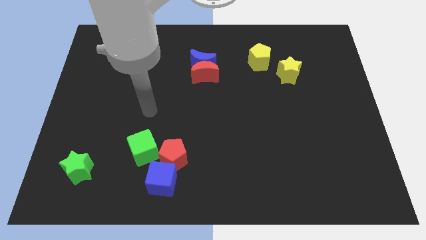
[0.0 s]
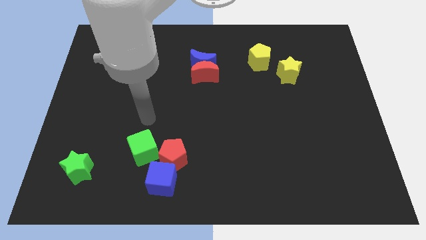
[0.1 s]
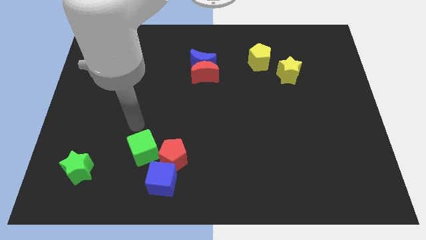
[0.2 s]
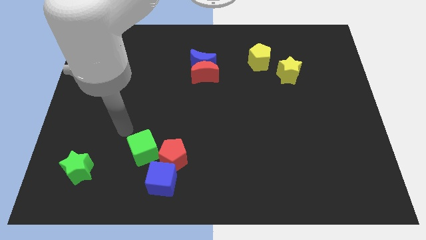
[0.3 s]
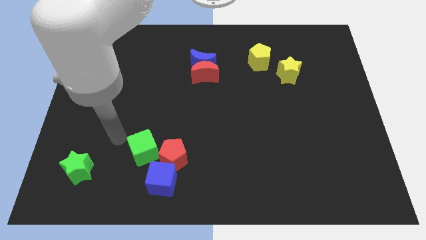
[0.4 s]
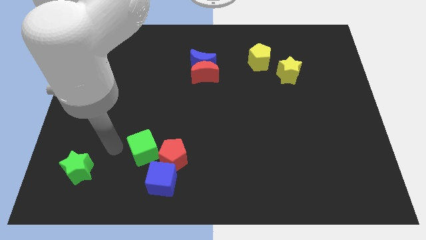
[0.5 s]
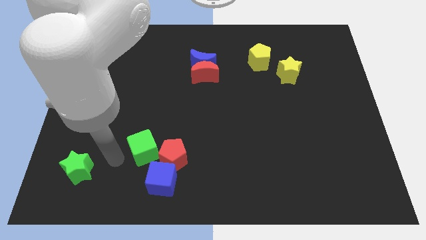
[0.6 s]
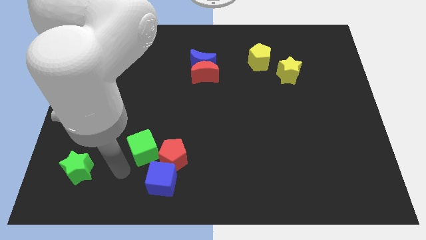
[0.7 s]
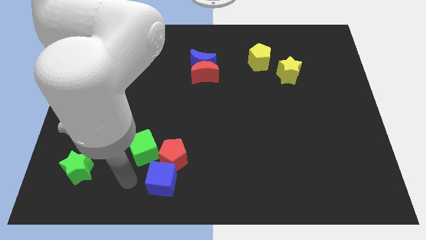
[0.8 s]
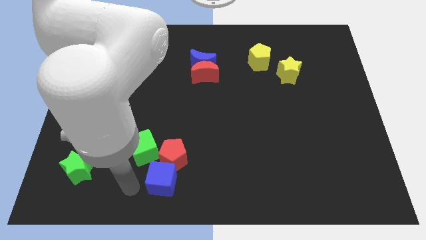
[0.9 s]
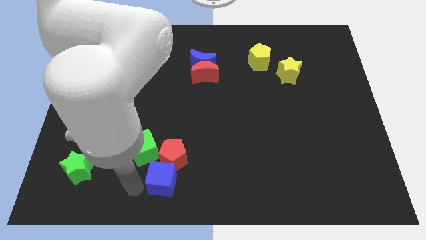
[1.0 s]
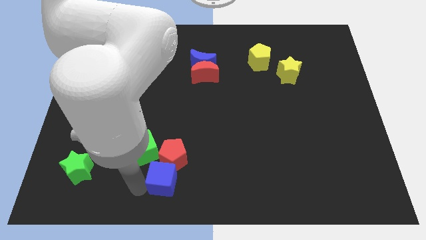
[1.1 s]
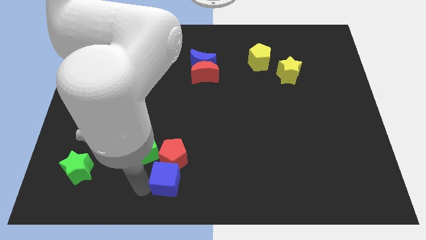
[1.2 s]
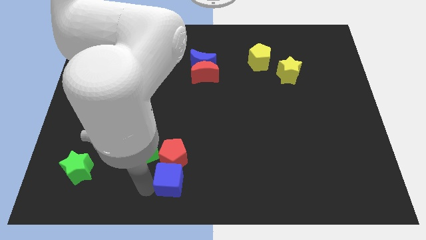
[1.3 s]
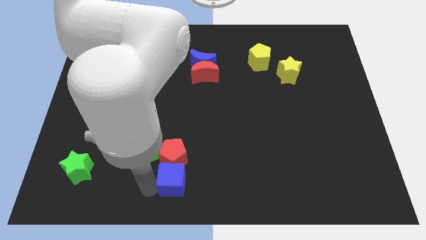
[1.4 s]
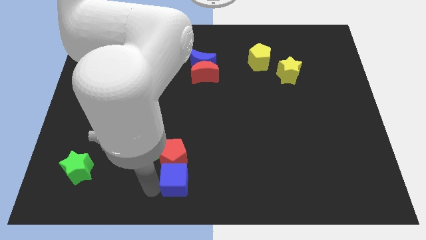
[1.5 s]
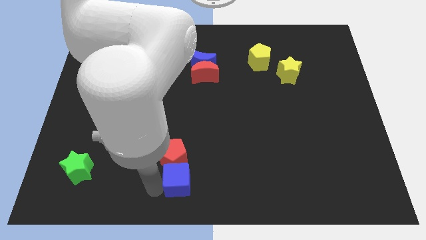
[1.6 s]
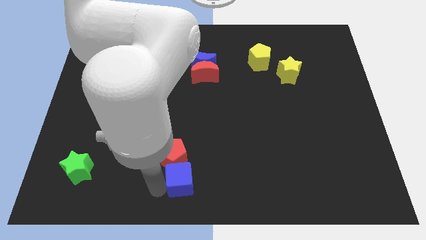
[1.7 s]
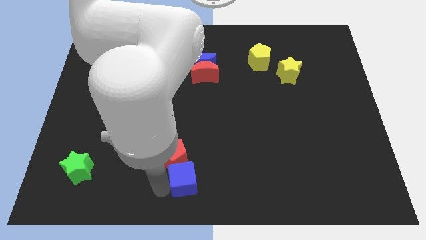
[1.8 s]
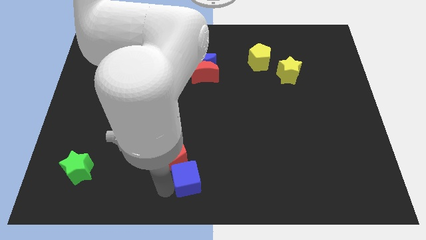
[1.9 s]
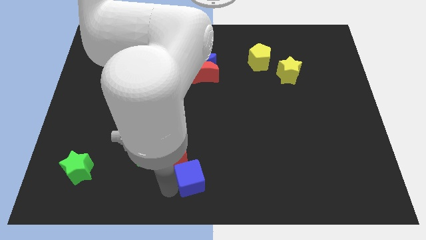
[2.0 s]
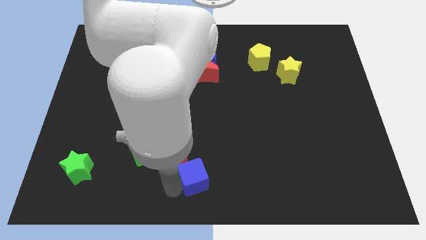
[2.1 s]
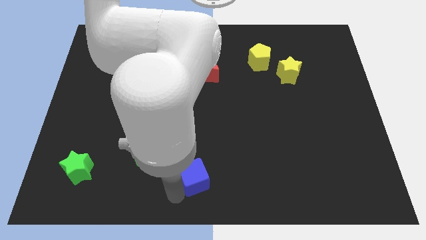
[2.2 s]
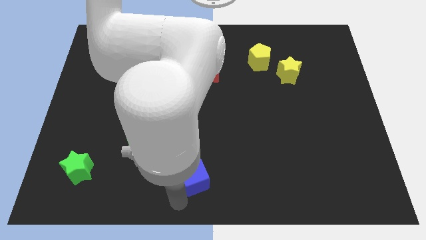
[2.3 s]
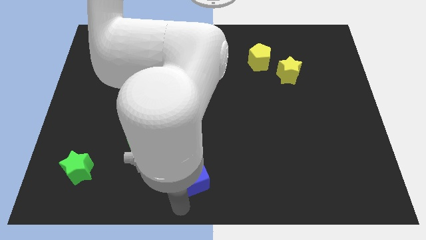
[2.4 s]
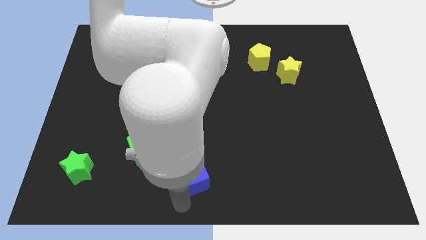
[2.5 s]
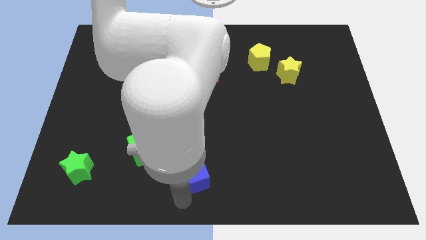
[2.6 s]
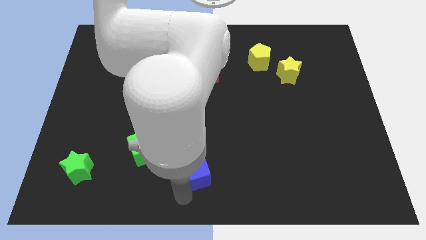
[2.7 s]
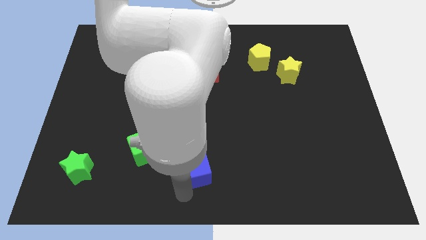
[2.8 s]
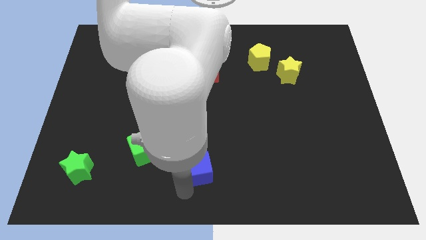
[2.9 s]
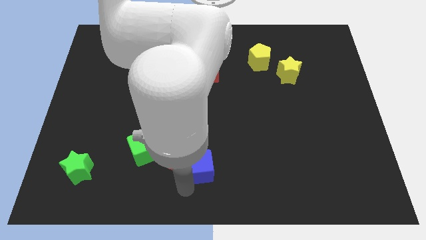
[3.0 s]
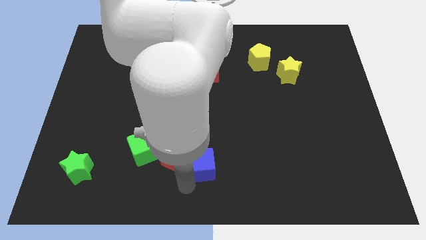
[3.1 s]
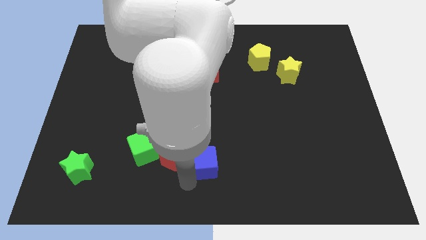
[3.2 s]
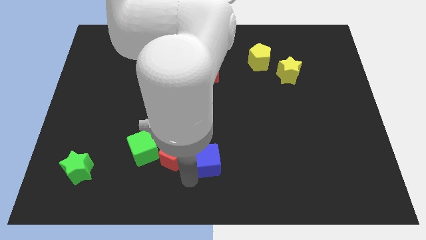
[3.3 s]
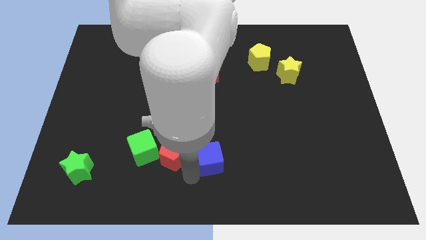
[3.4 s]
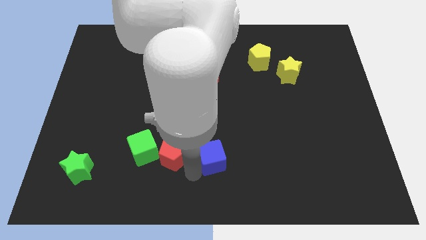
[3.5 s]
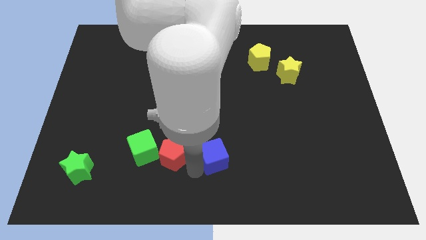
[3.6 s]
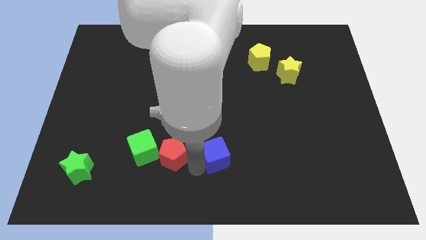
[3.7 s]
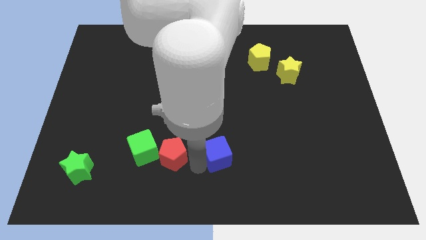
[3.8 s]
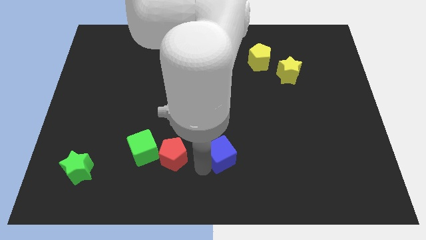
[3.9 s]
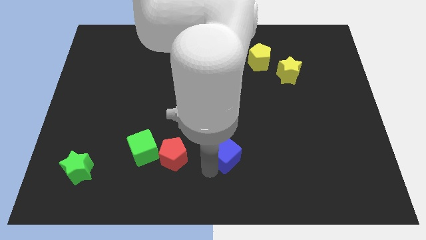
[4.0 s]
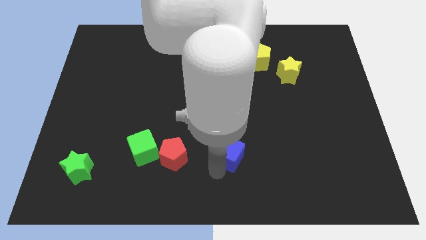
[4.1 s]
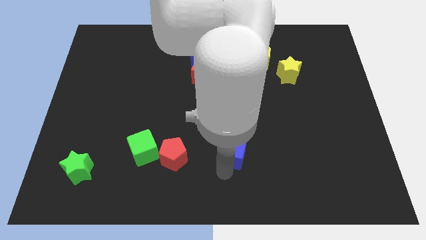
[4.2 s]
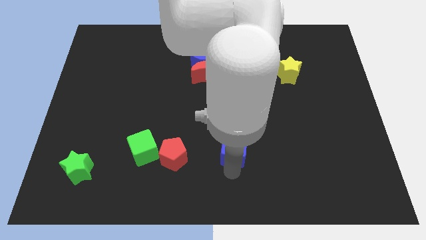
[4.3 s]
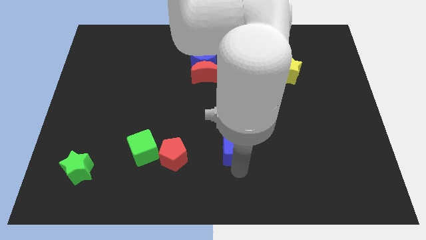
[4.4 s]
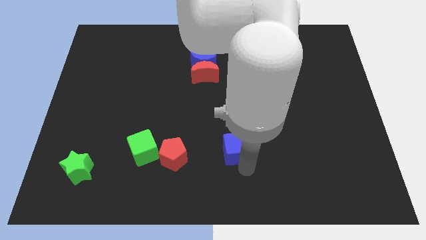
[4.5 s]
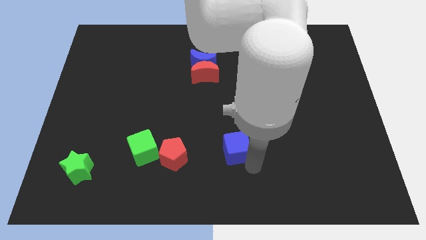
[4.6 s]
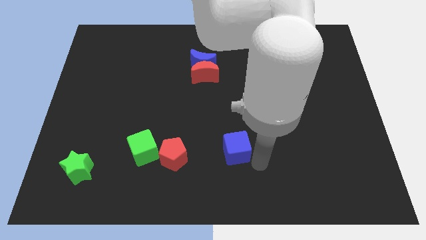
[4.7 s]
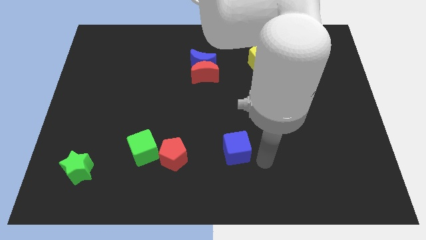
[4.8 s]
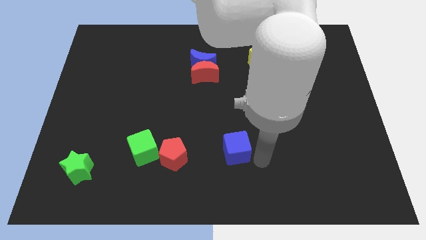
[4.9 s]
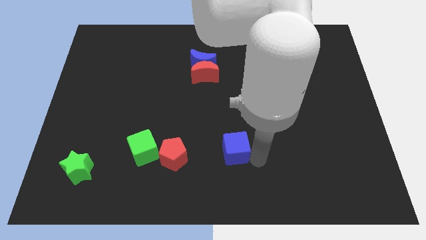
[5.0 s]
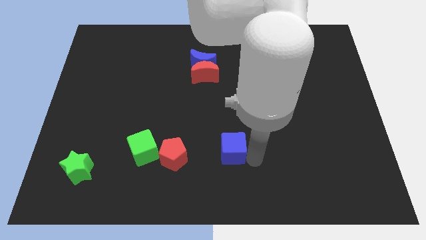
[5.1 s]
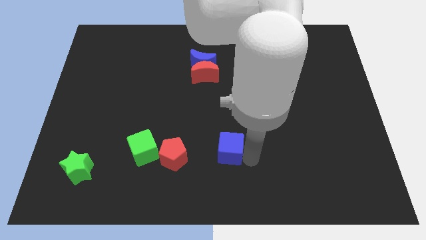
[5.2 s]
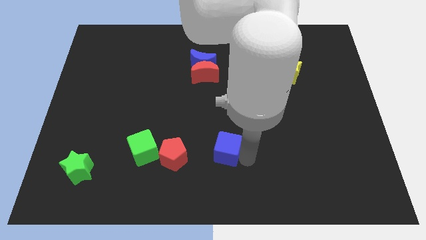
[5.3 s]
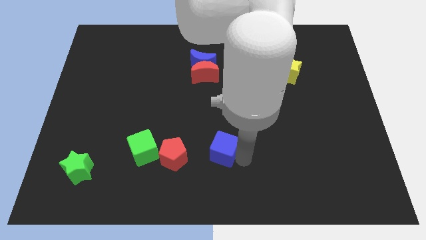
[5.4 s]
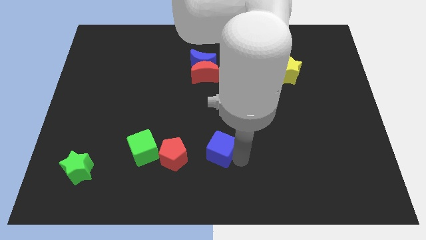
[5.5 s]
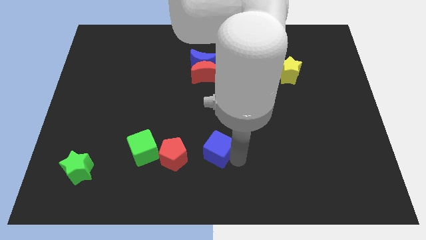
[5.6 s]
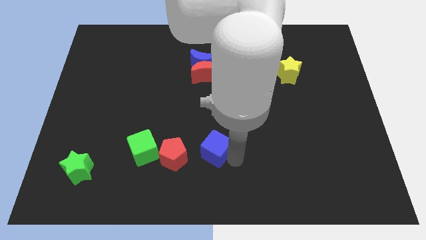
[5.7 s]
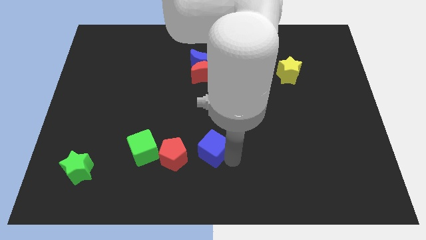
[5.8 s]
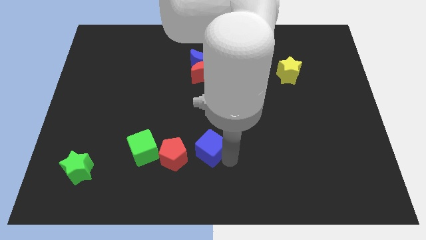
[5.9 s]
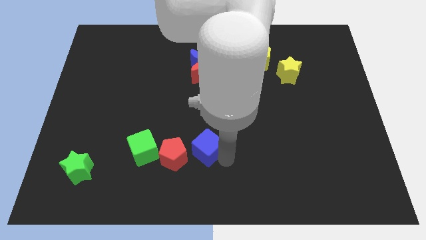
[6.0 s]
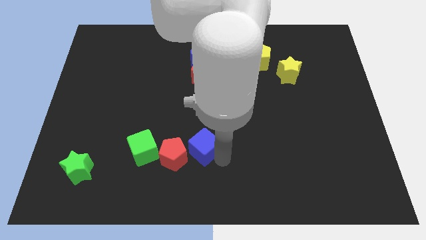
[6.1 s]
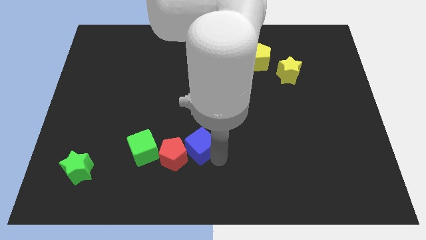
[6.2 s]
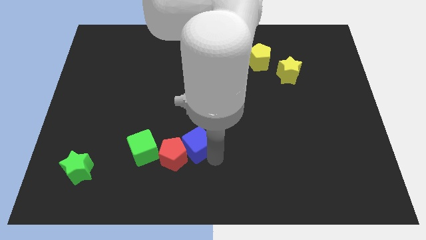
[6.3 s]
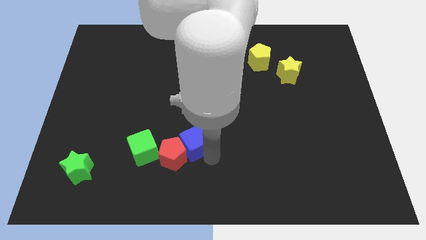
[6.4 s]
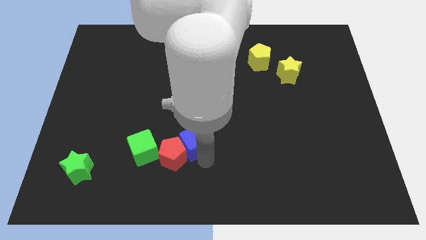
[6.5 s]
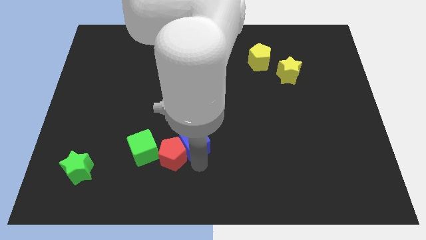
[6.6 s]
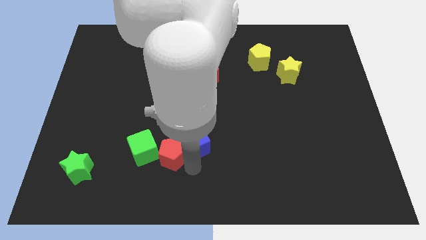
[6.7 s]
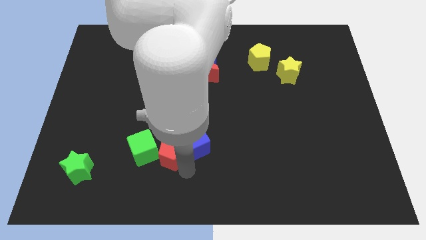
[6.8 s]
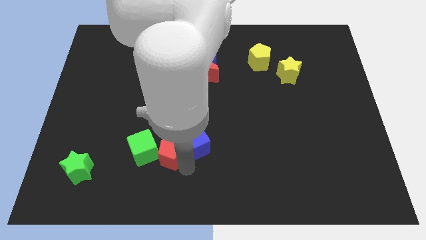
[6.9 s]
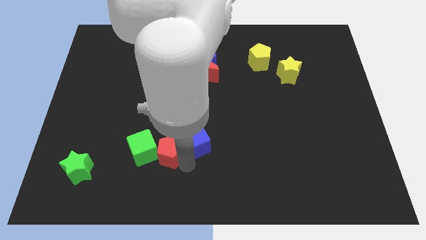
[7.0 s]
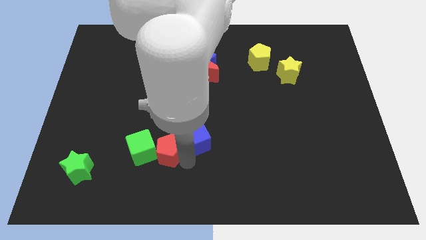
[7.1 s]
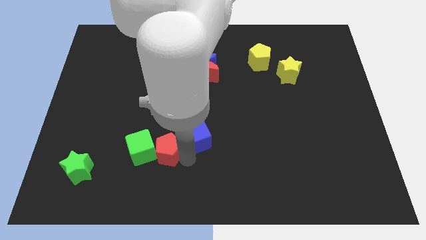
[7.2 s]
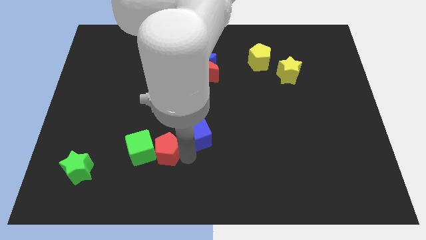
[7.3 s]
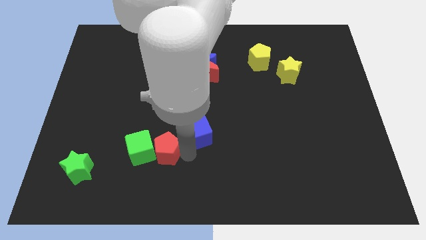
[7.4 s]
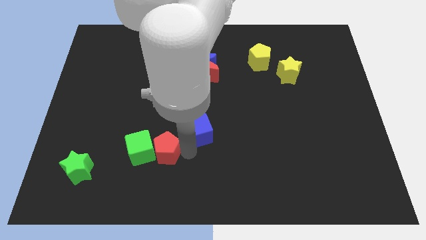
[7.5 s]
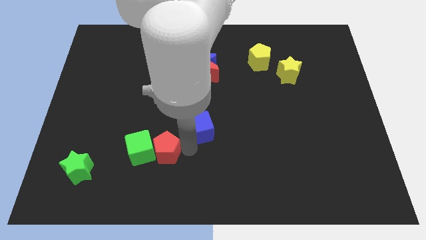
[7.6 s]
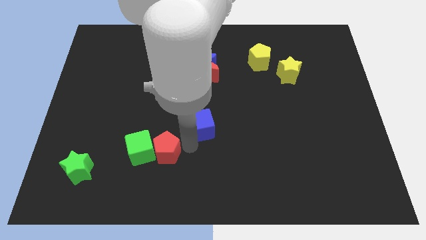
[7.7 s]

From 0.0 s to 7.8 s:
slide the blue cube to the bottom side of the red moon
